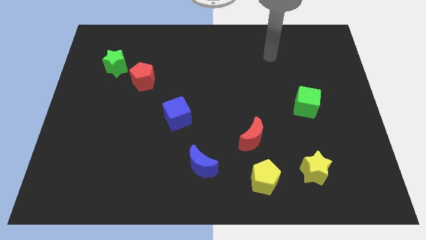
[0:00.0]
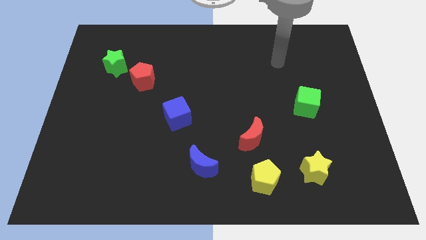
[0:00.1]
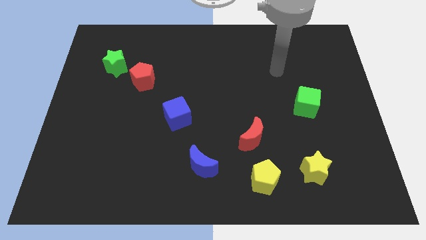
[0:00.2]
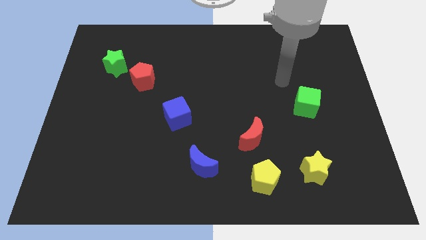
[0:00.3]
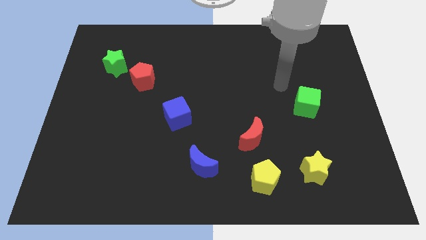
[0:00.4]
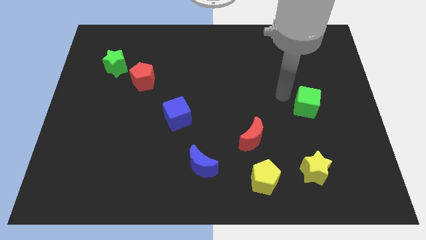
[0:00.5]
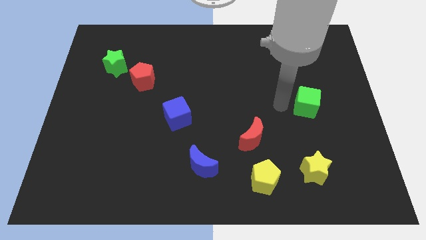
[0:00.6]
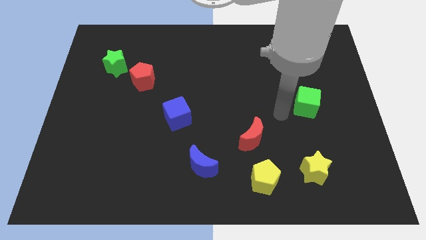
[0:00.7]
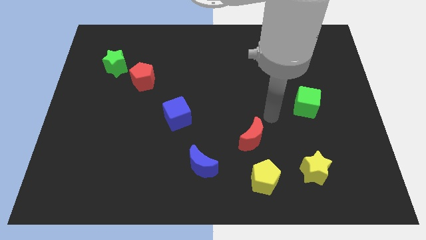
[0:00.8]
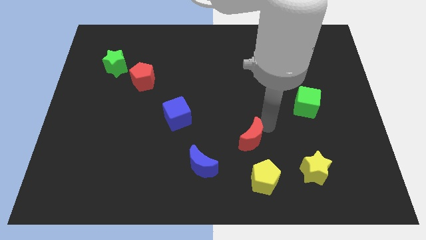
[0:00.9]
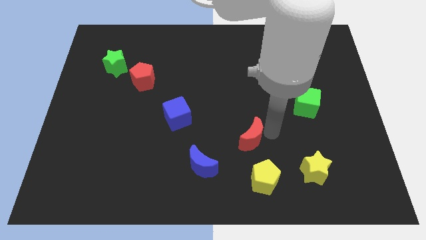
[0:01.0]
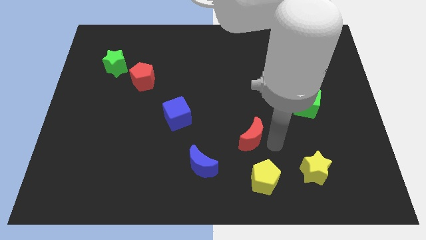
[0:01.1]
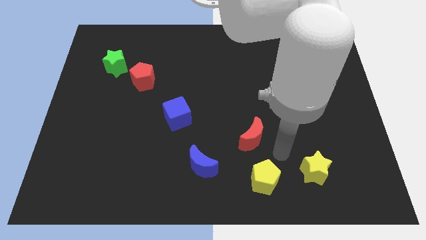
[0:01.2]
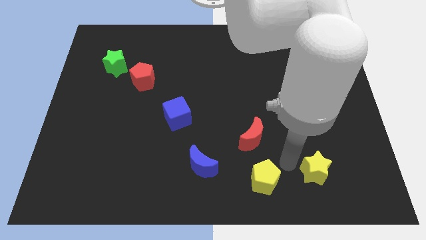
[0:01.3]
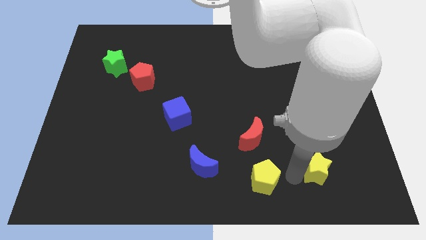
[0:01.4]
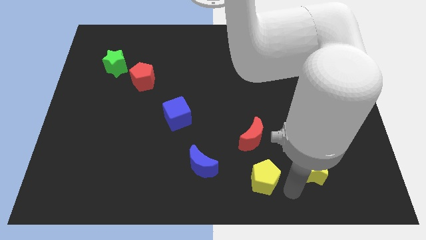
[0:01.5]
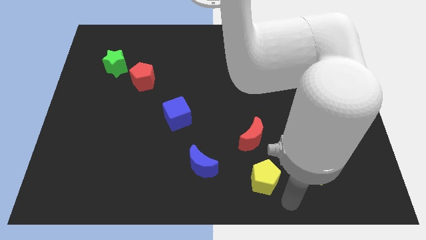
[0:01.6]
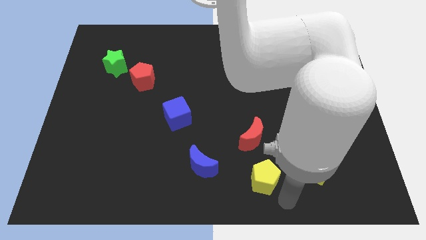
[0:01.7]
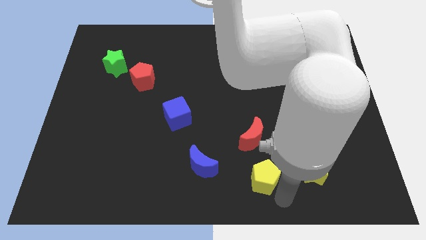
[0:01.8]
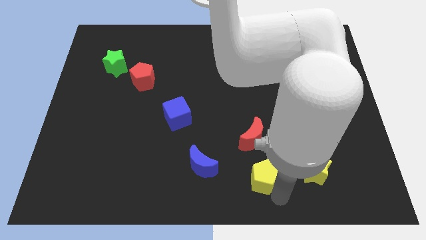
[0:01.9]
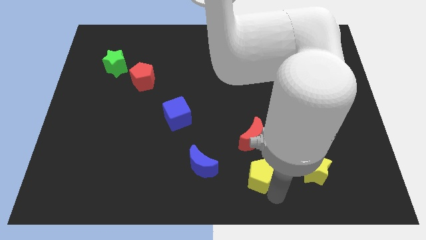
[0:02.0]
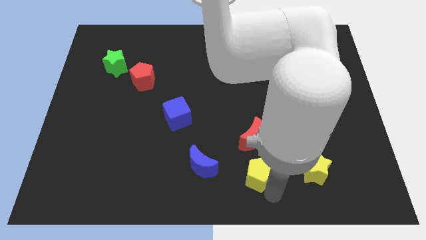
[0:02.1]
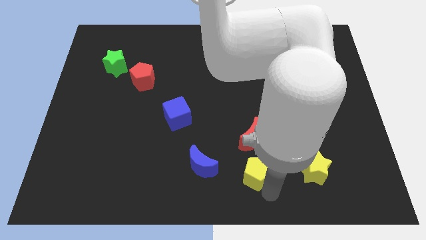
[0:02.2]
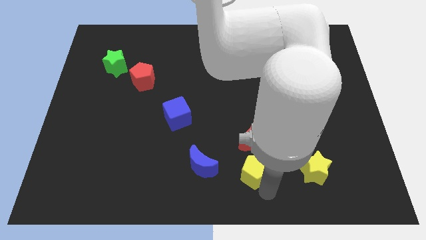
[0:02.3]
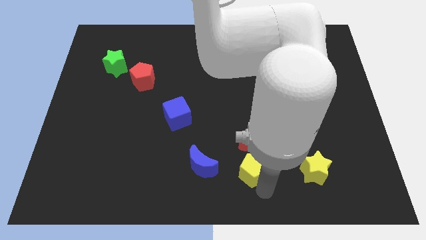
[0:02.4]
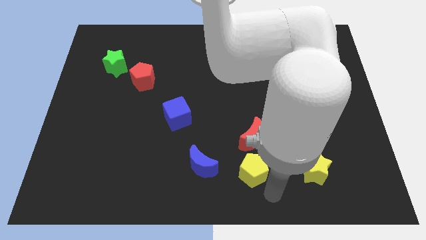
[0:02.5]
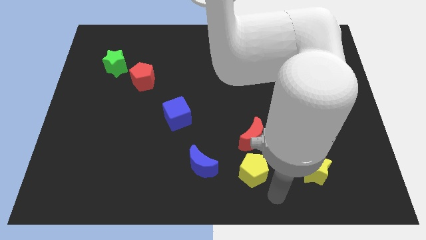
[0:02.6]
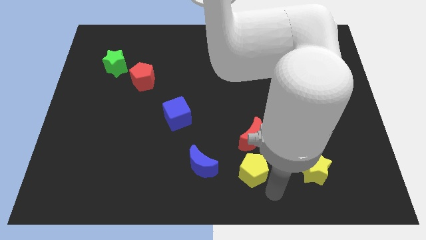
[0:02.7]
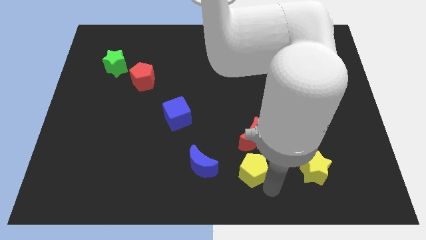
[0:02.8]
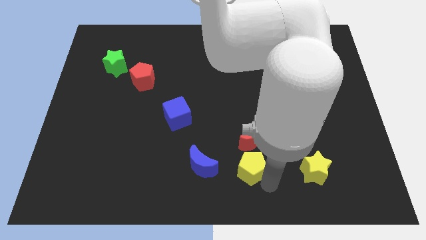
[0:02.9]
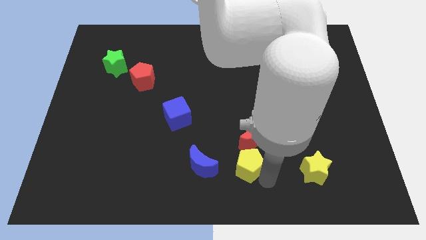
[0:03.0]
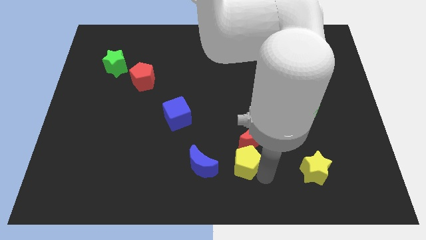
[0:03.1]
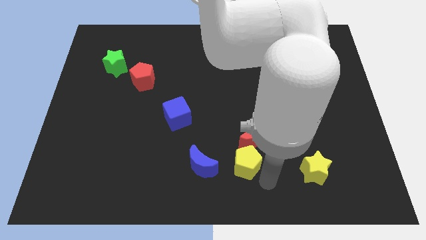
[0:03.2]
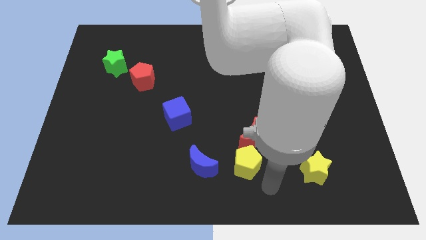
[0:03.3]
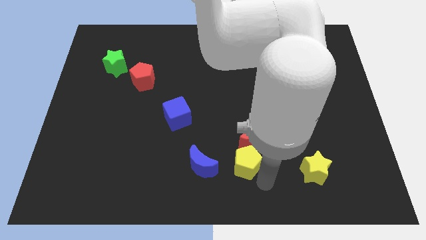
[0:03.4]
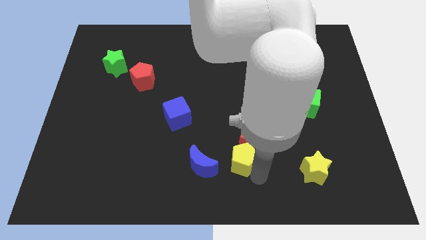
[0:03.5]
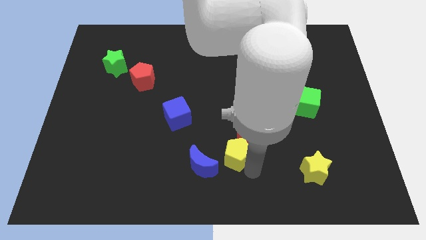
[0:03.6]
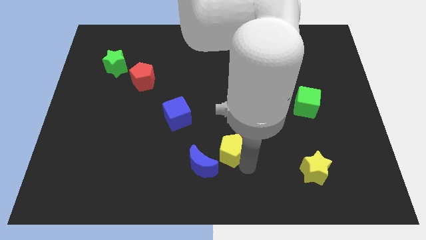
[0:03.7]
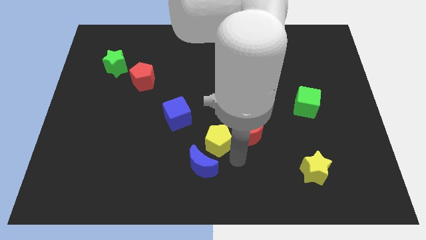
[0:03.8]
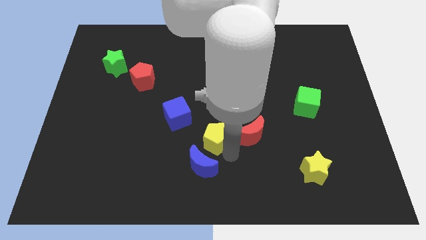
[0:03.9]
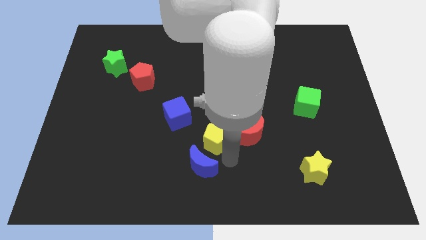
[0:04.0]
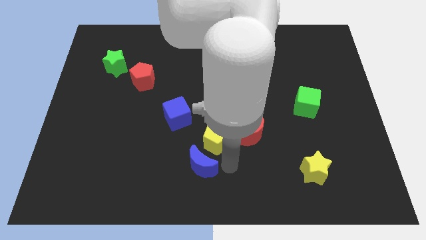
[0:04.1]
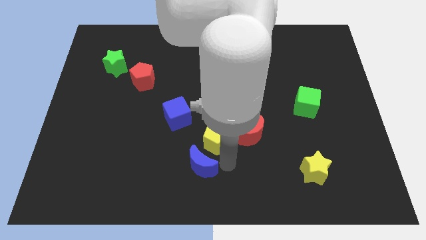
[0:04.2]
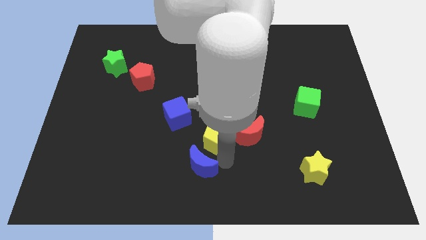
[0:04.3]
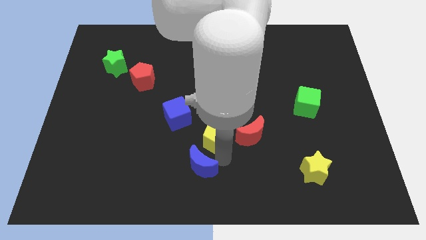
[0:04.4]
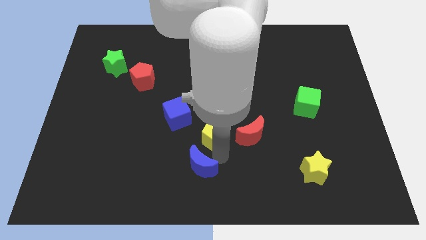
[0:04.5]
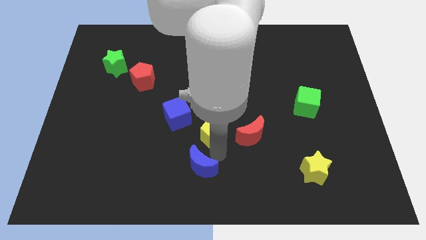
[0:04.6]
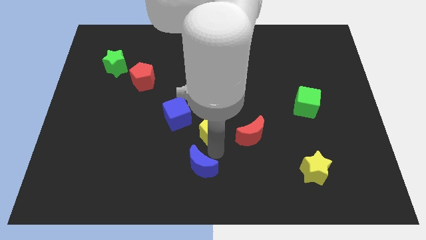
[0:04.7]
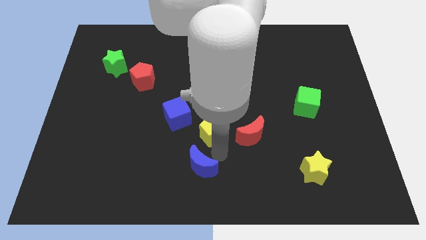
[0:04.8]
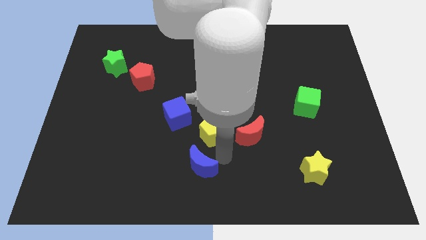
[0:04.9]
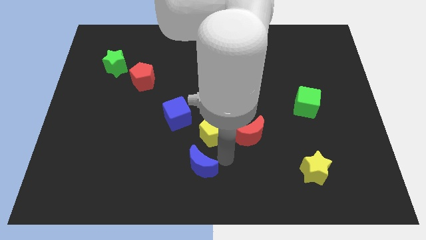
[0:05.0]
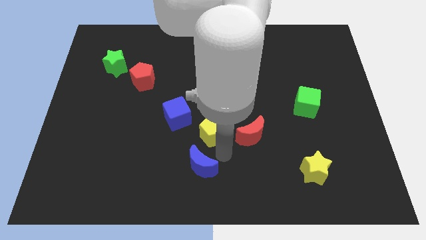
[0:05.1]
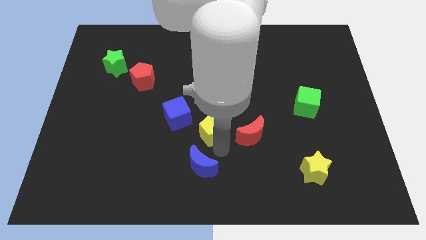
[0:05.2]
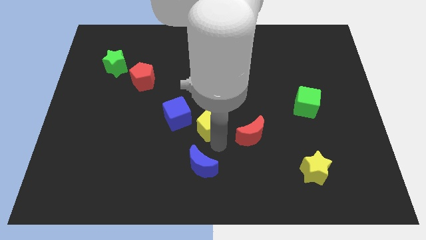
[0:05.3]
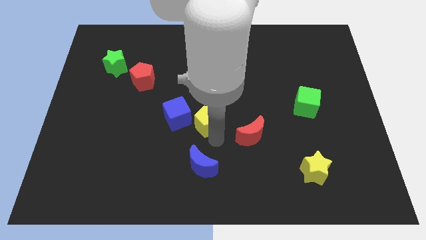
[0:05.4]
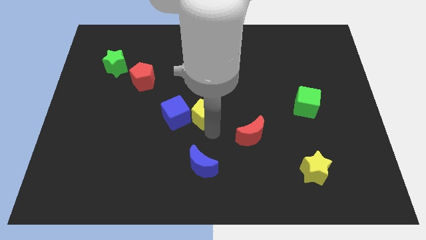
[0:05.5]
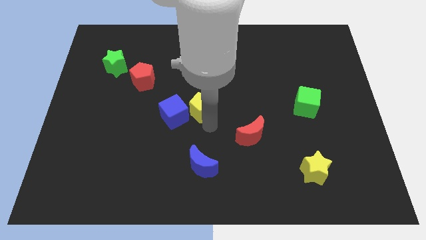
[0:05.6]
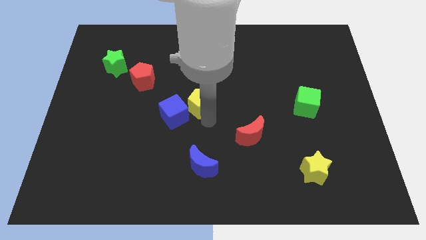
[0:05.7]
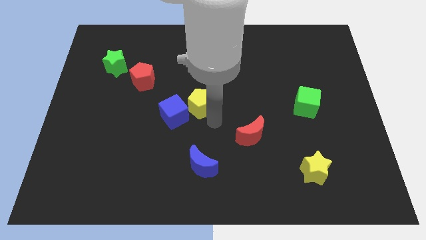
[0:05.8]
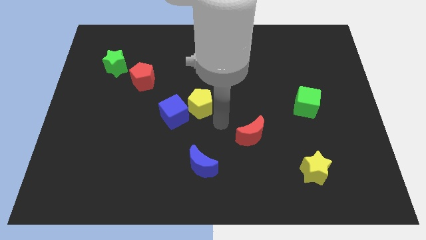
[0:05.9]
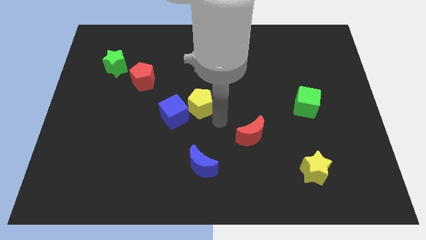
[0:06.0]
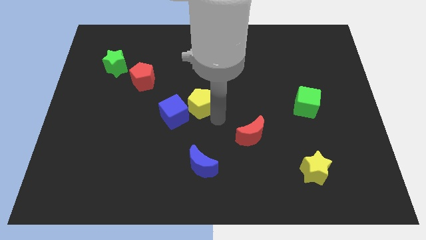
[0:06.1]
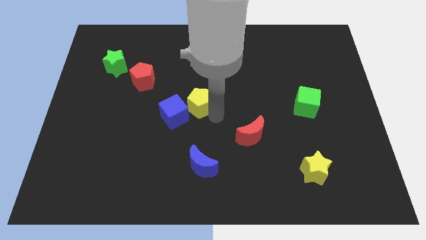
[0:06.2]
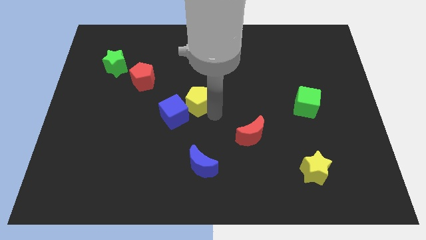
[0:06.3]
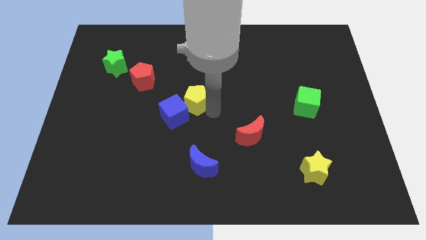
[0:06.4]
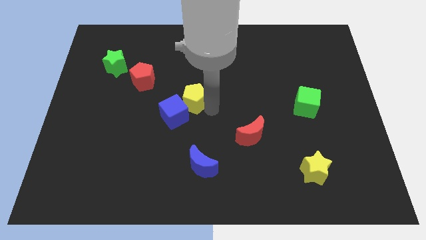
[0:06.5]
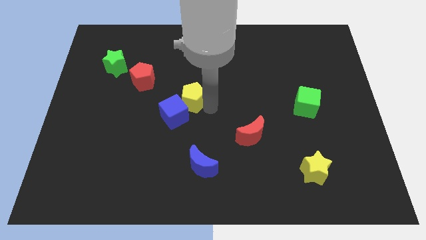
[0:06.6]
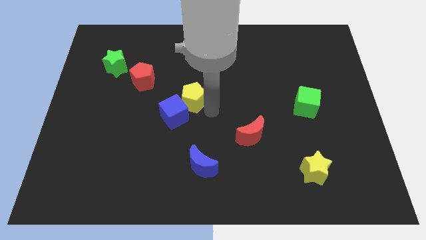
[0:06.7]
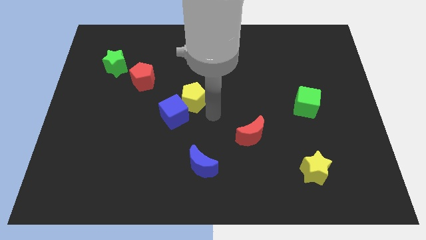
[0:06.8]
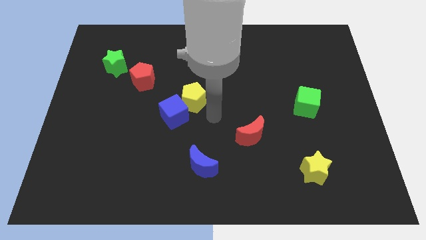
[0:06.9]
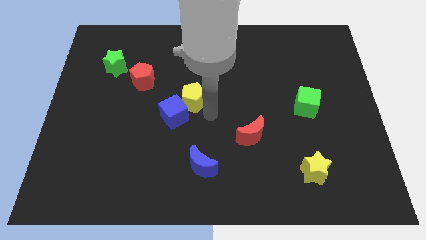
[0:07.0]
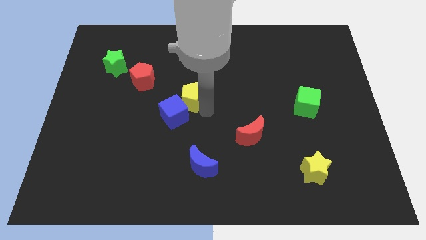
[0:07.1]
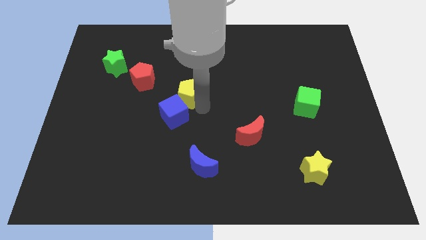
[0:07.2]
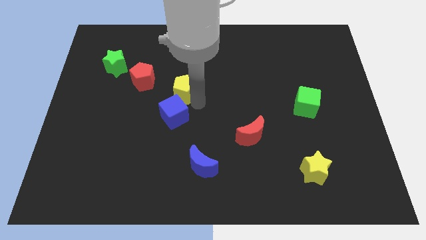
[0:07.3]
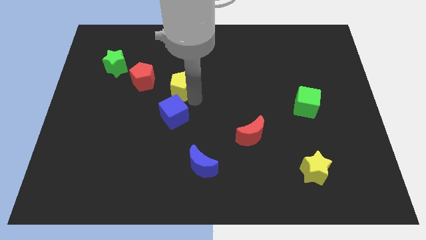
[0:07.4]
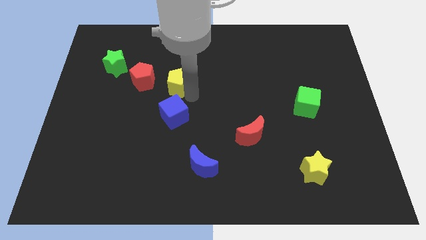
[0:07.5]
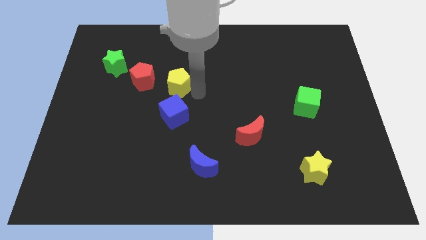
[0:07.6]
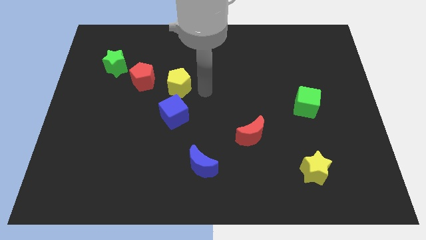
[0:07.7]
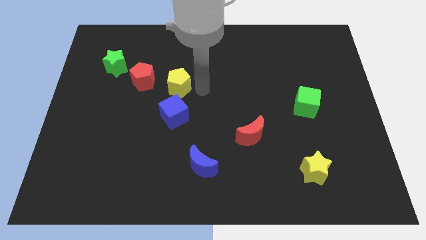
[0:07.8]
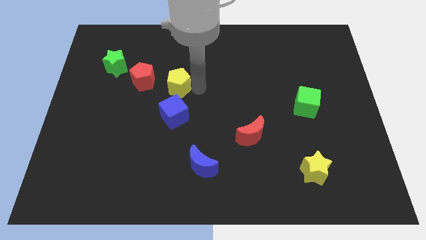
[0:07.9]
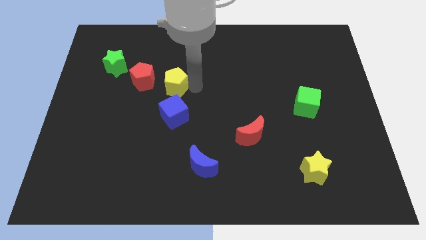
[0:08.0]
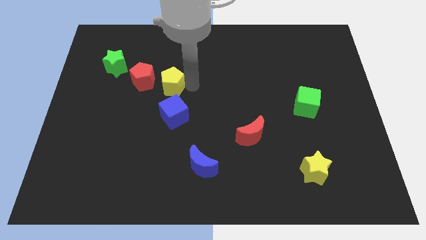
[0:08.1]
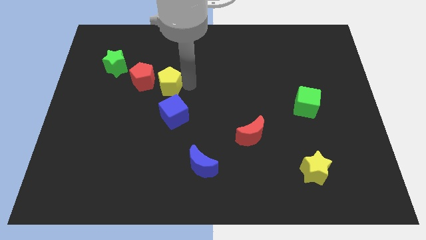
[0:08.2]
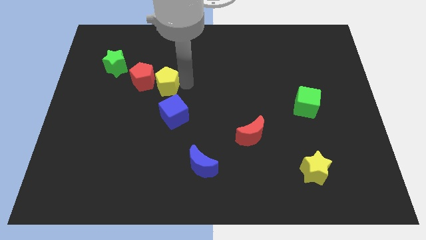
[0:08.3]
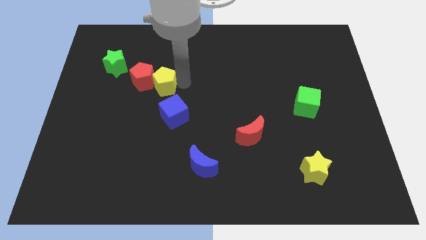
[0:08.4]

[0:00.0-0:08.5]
move the yellow pentagon close to the red pentagon
